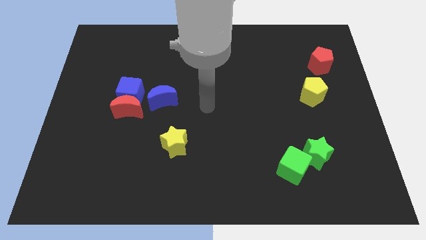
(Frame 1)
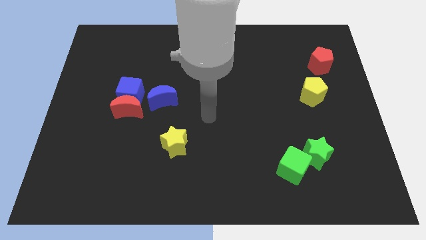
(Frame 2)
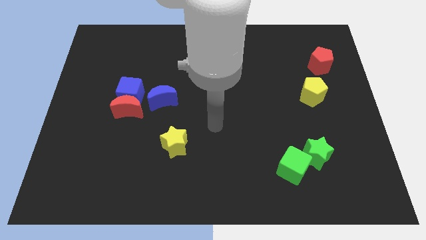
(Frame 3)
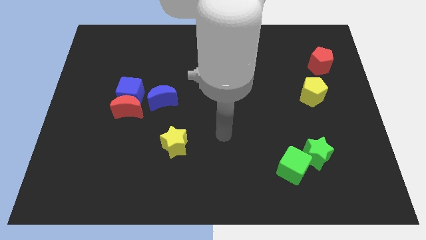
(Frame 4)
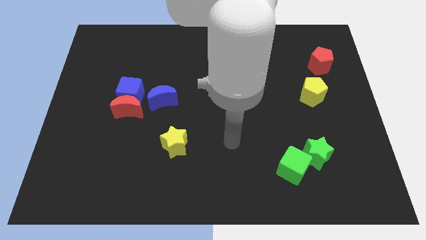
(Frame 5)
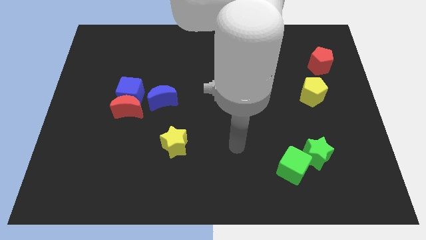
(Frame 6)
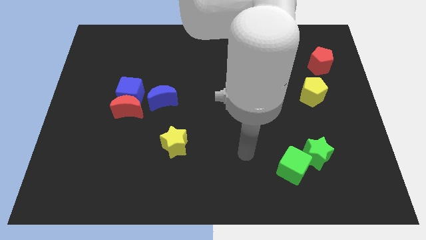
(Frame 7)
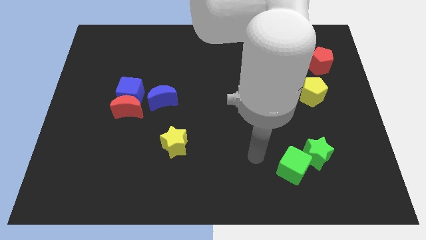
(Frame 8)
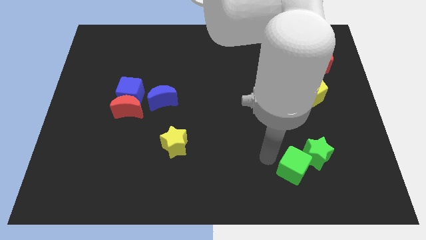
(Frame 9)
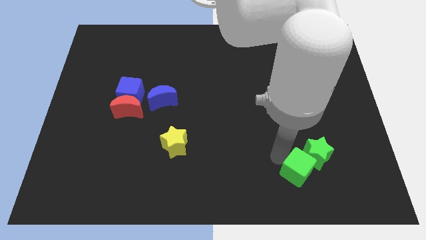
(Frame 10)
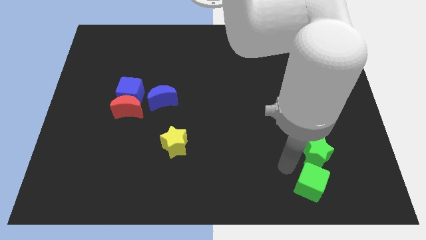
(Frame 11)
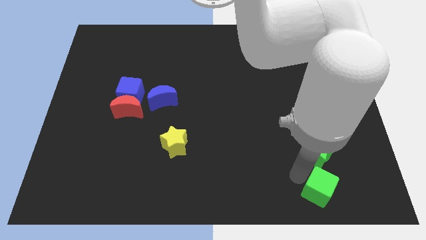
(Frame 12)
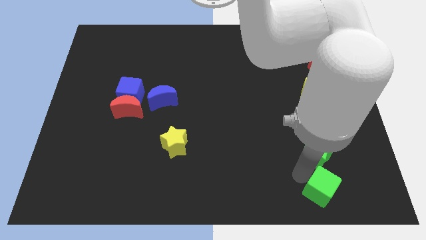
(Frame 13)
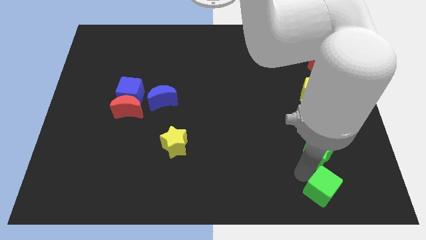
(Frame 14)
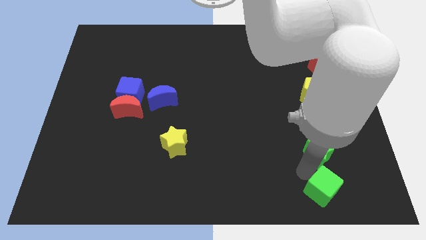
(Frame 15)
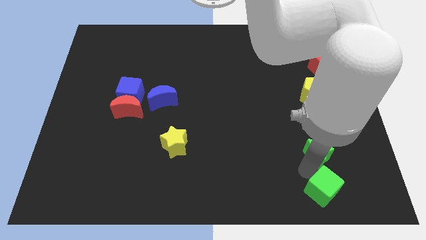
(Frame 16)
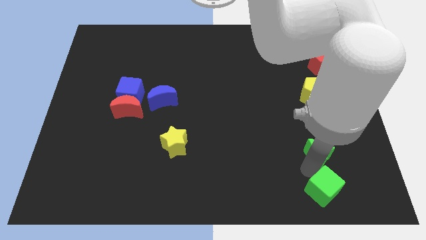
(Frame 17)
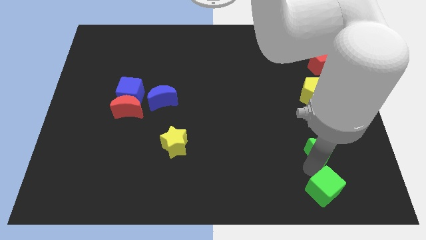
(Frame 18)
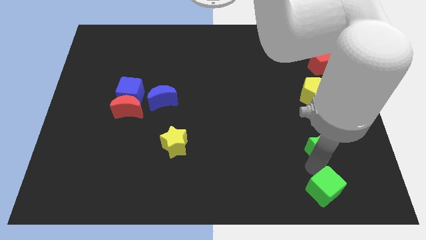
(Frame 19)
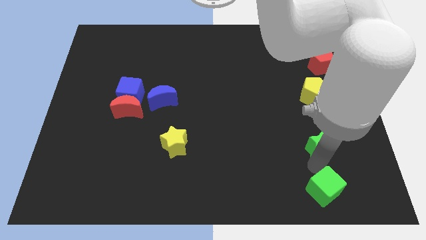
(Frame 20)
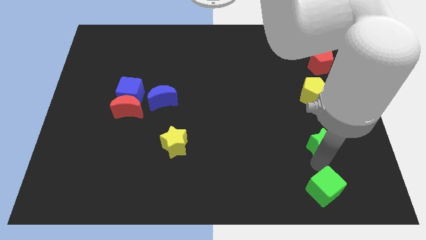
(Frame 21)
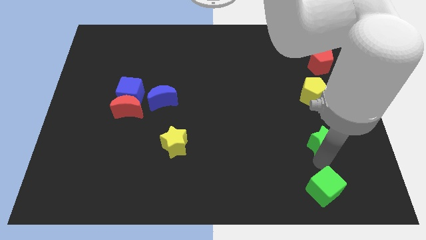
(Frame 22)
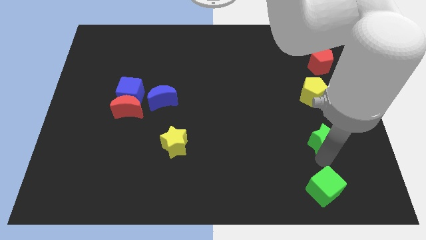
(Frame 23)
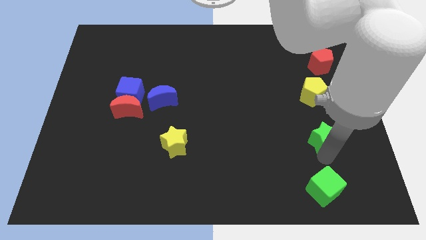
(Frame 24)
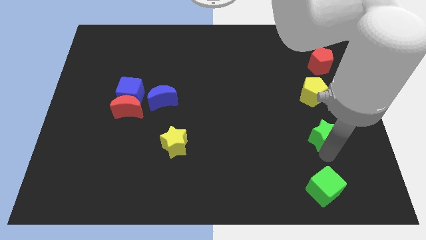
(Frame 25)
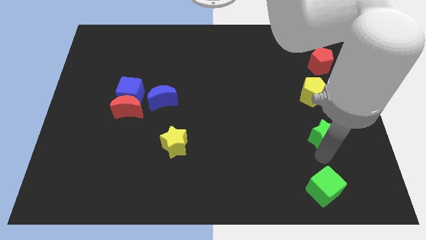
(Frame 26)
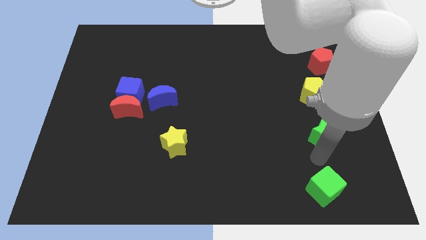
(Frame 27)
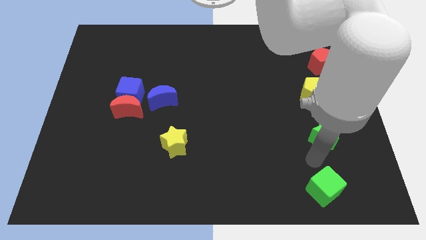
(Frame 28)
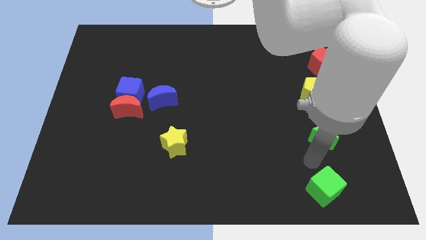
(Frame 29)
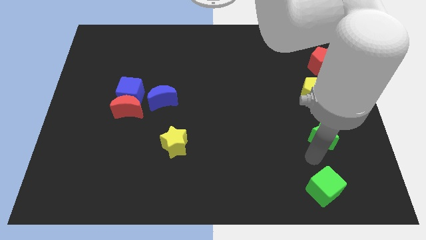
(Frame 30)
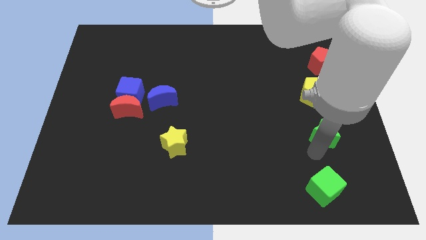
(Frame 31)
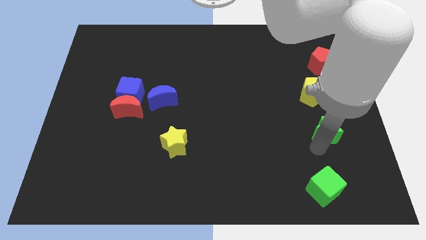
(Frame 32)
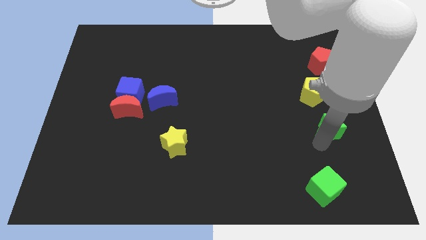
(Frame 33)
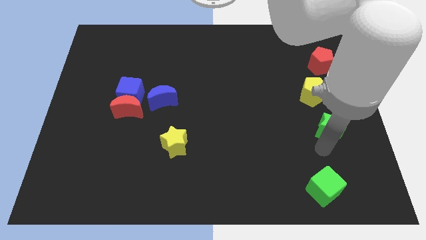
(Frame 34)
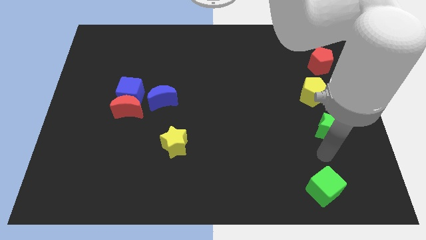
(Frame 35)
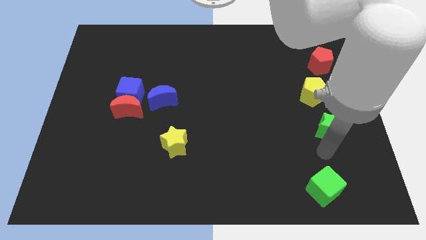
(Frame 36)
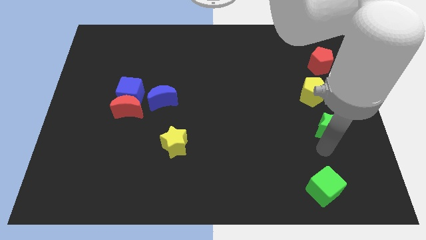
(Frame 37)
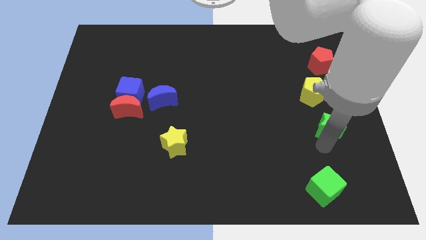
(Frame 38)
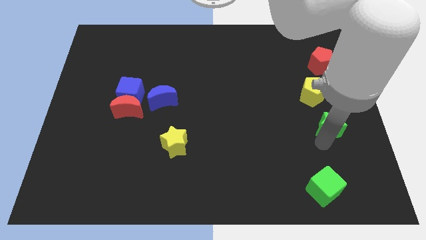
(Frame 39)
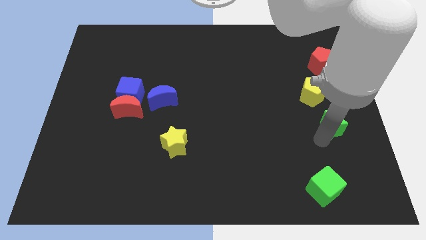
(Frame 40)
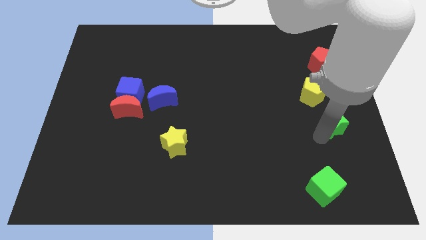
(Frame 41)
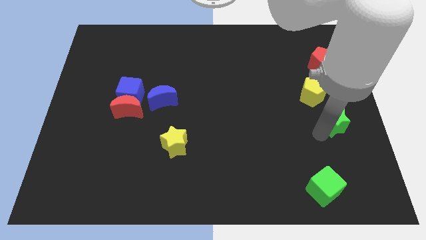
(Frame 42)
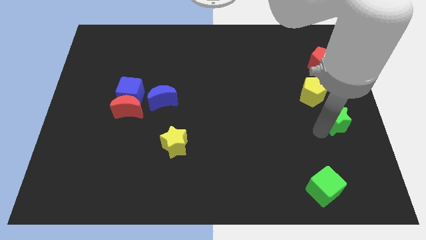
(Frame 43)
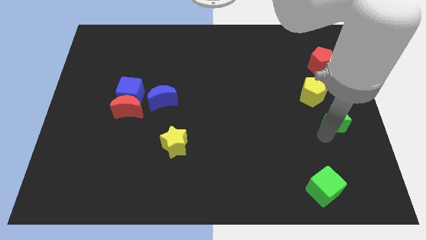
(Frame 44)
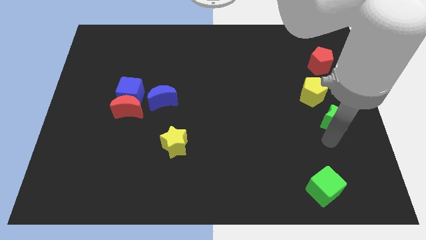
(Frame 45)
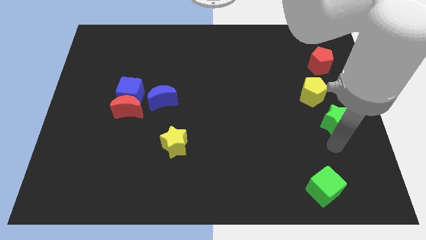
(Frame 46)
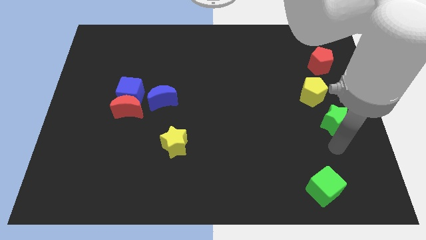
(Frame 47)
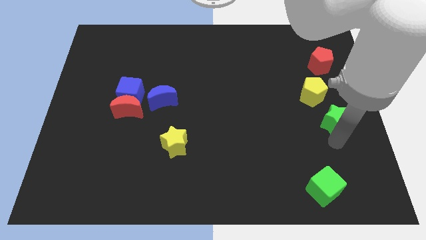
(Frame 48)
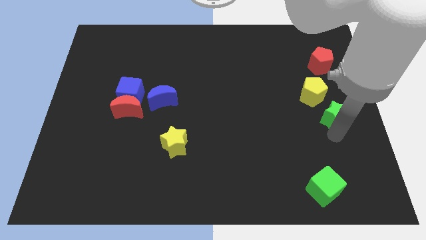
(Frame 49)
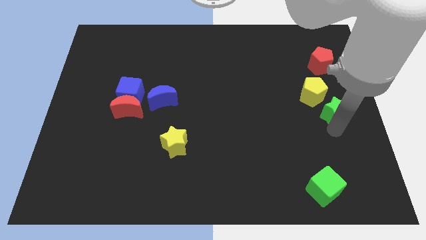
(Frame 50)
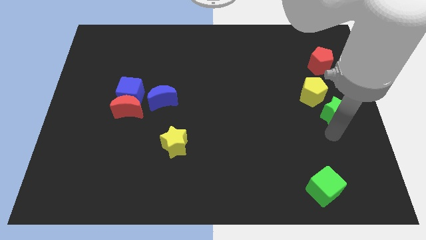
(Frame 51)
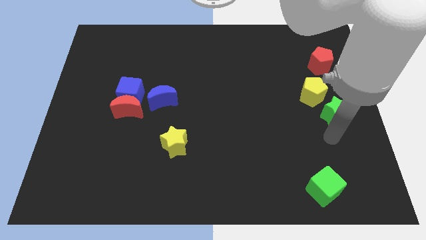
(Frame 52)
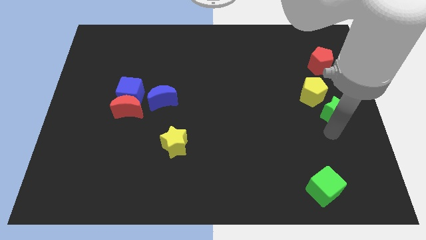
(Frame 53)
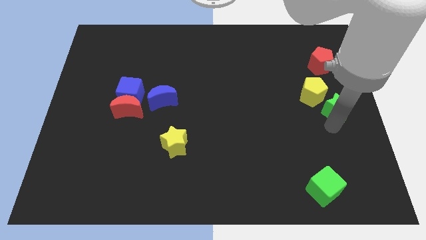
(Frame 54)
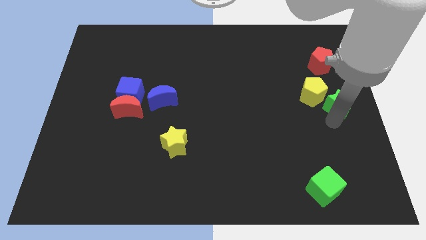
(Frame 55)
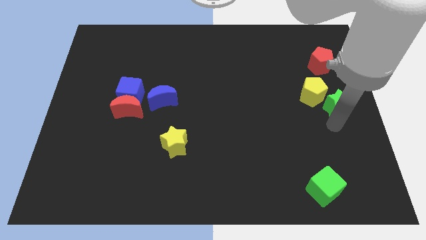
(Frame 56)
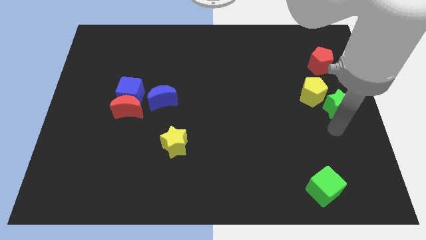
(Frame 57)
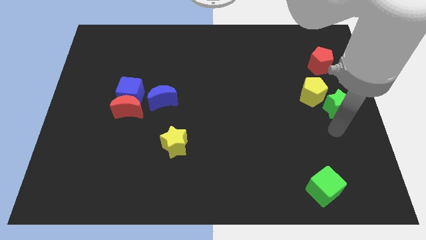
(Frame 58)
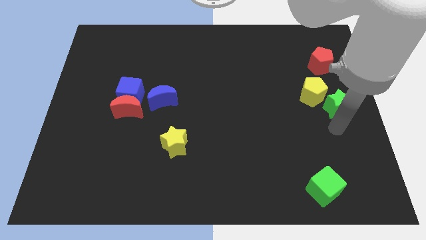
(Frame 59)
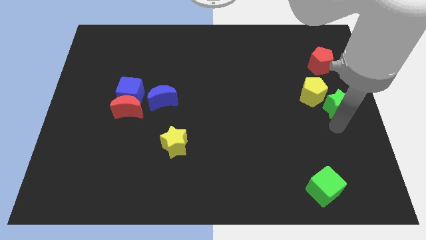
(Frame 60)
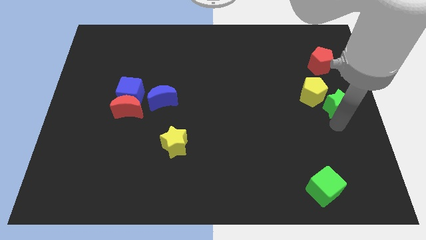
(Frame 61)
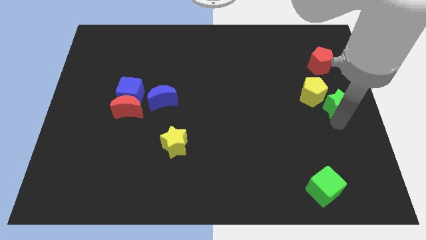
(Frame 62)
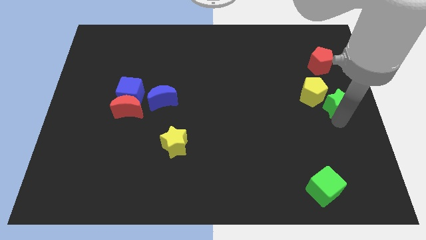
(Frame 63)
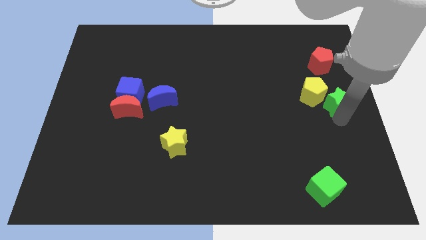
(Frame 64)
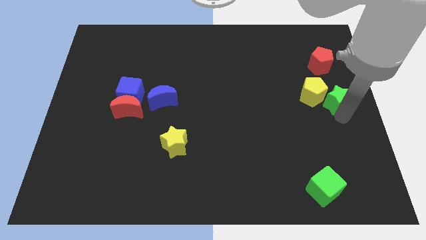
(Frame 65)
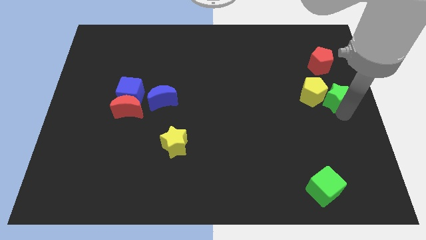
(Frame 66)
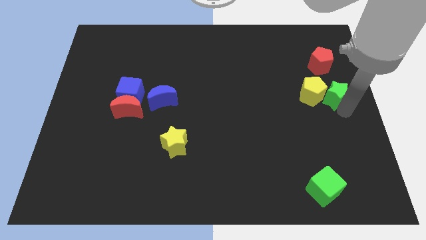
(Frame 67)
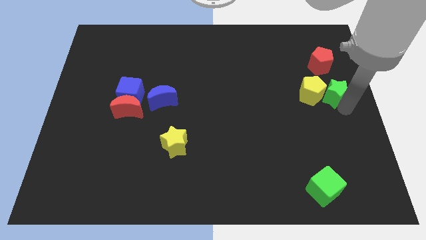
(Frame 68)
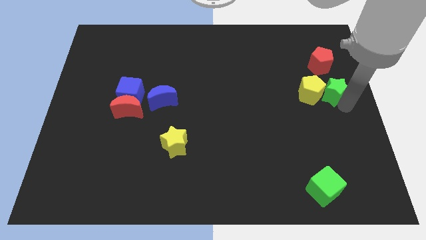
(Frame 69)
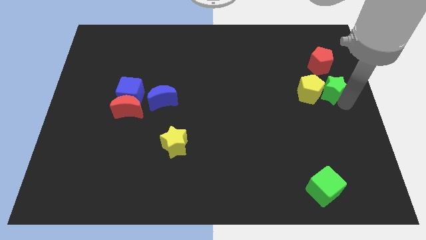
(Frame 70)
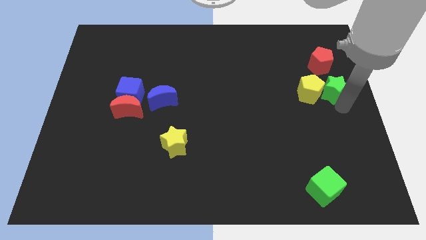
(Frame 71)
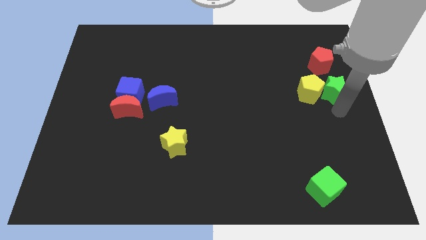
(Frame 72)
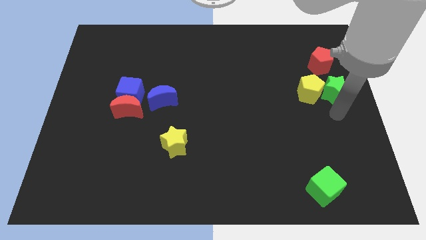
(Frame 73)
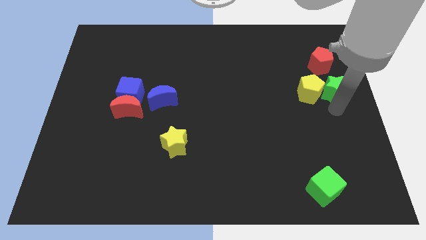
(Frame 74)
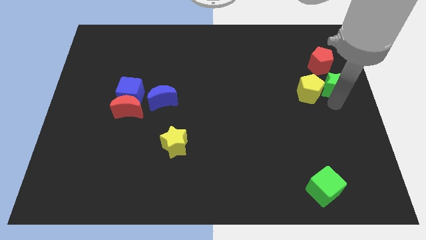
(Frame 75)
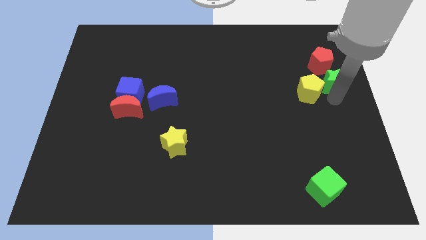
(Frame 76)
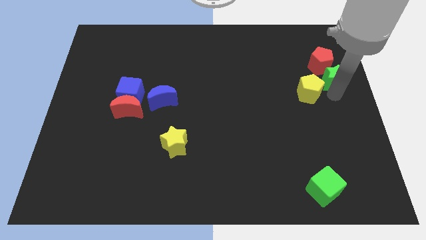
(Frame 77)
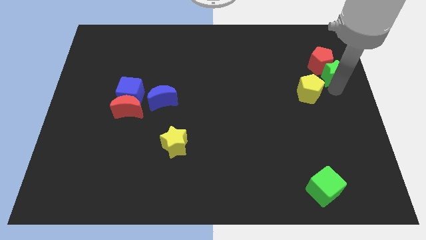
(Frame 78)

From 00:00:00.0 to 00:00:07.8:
slide the green star to the red pentagon
